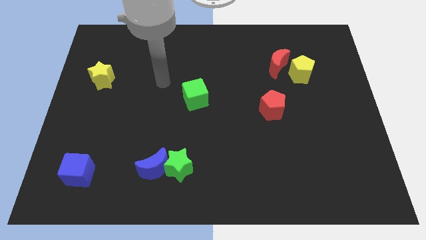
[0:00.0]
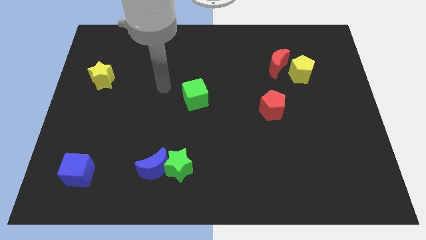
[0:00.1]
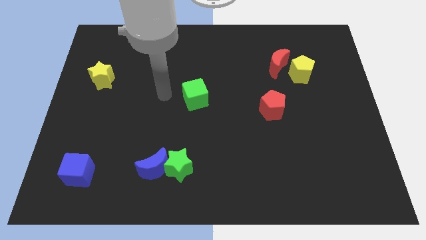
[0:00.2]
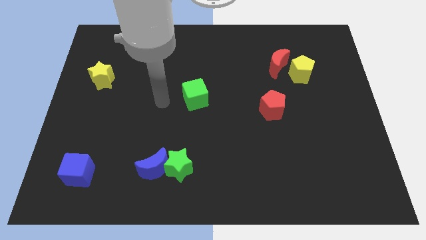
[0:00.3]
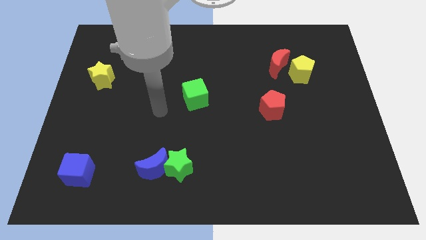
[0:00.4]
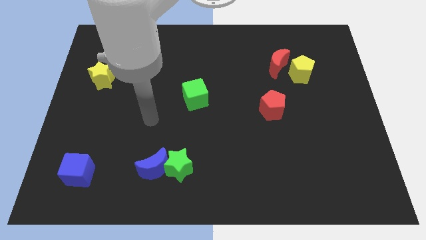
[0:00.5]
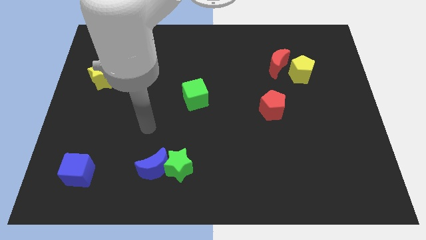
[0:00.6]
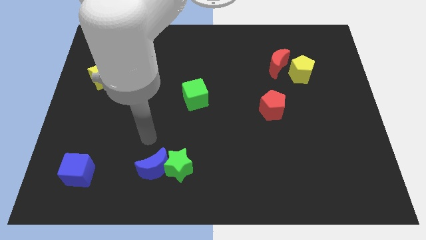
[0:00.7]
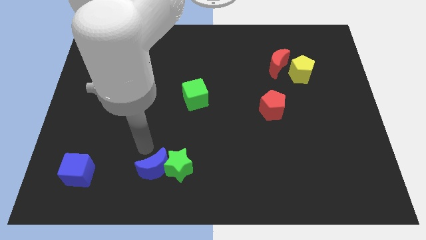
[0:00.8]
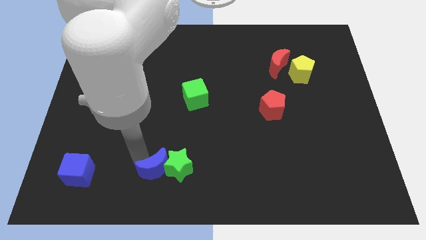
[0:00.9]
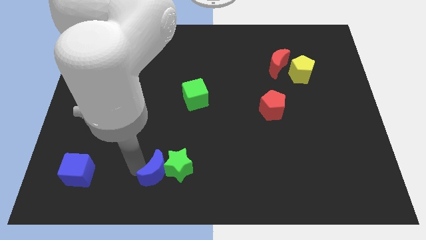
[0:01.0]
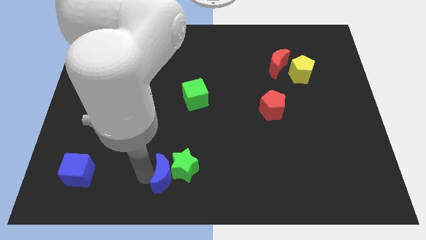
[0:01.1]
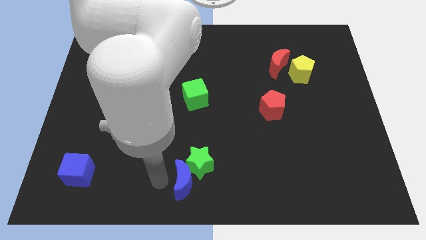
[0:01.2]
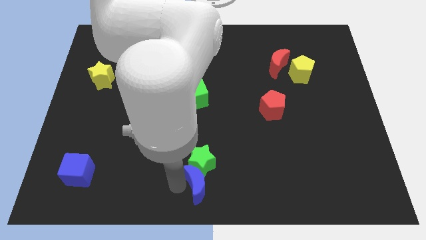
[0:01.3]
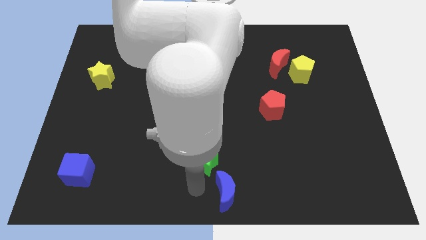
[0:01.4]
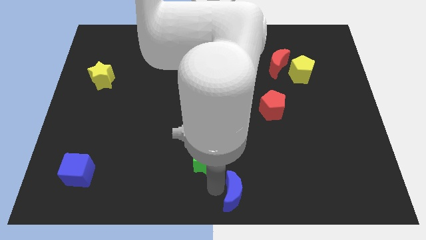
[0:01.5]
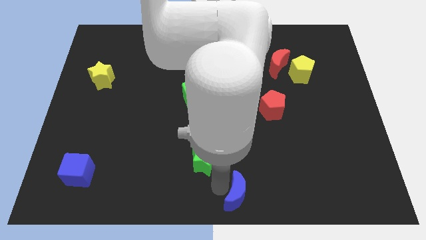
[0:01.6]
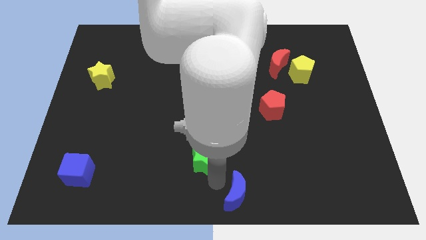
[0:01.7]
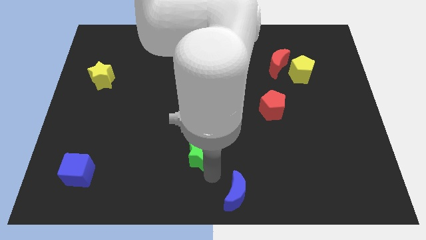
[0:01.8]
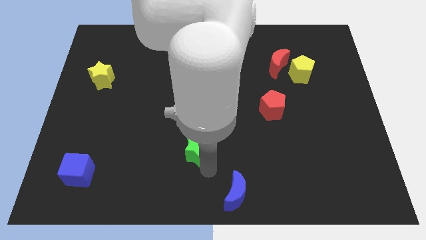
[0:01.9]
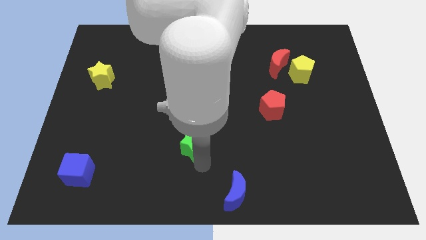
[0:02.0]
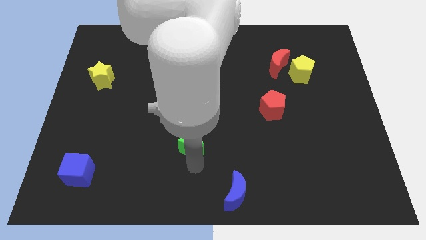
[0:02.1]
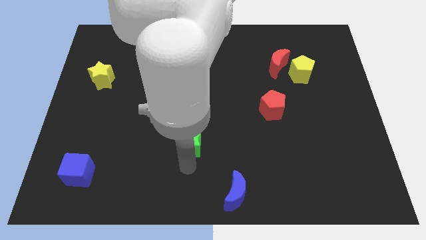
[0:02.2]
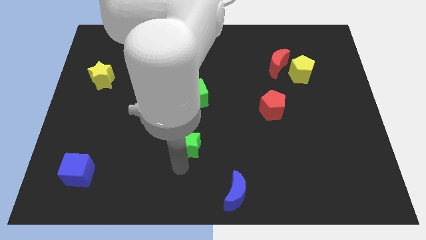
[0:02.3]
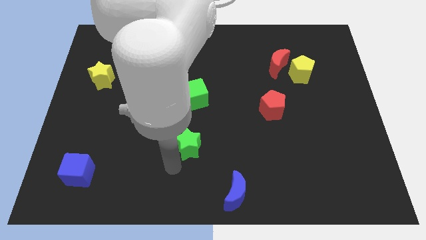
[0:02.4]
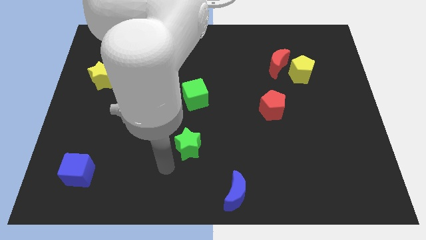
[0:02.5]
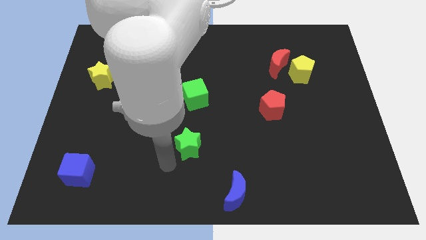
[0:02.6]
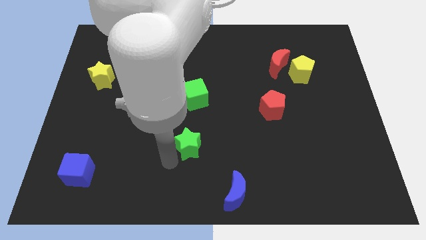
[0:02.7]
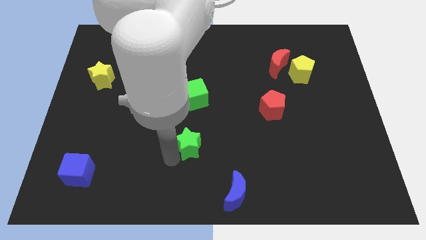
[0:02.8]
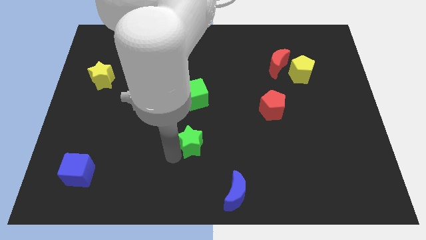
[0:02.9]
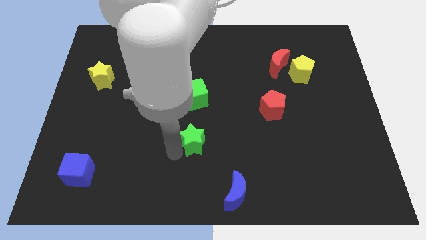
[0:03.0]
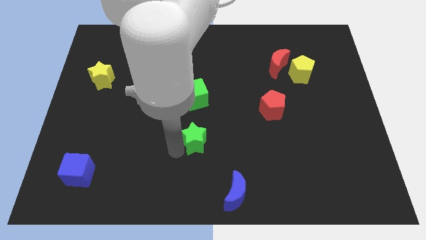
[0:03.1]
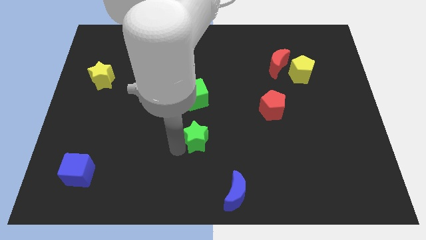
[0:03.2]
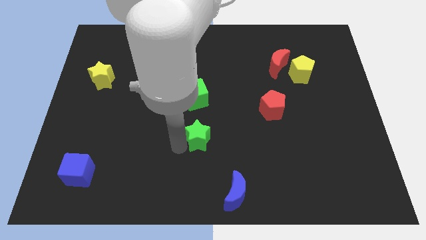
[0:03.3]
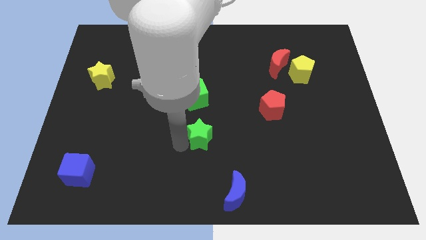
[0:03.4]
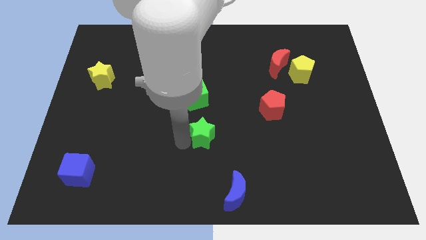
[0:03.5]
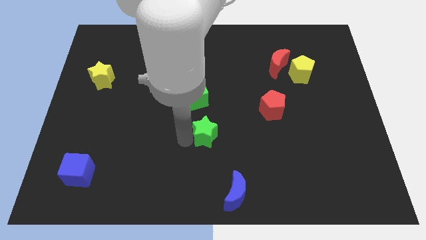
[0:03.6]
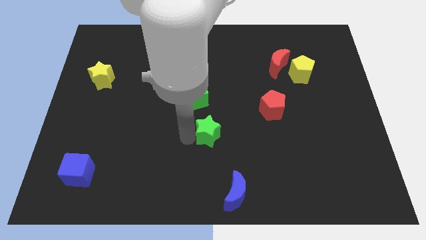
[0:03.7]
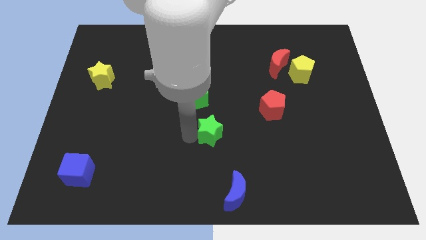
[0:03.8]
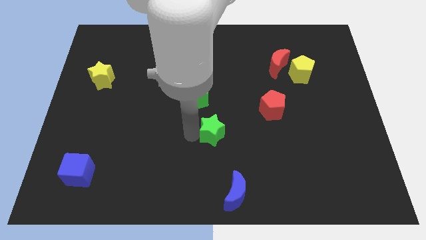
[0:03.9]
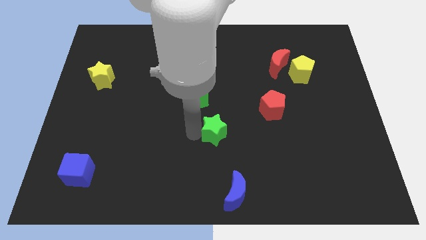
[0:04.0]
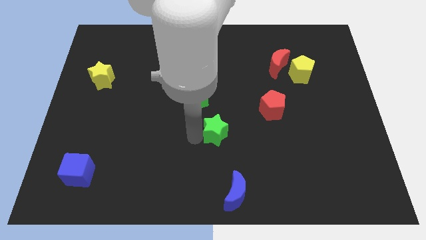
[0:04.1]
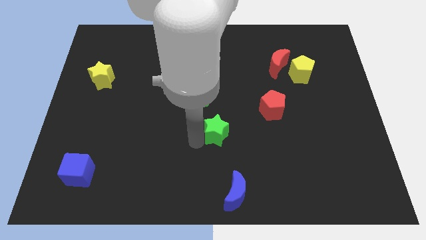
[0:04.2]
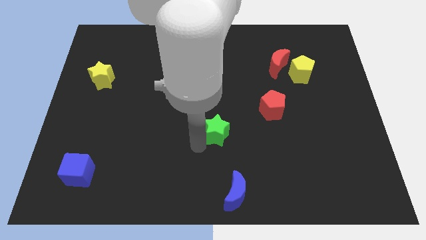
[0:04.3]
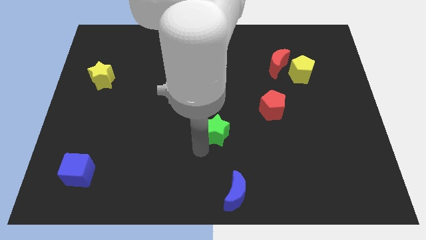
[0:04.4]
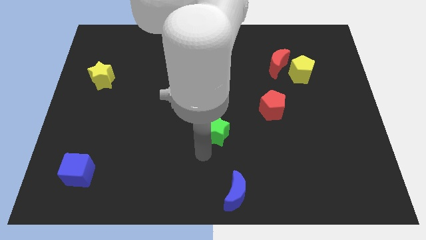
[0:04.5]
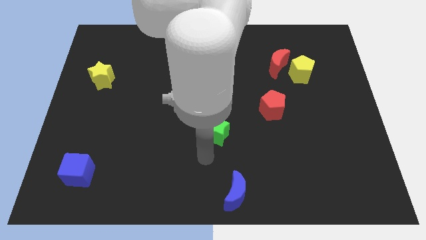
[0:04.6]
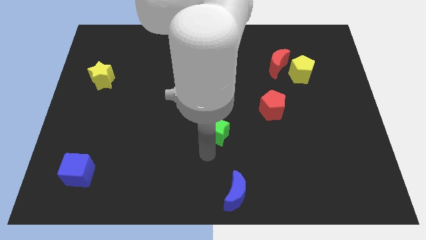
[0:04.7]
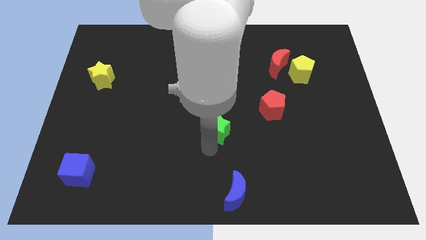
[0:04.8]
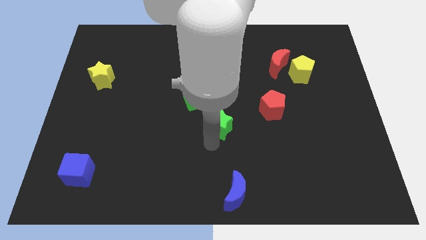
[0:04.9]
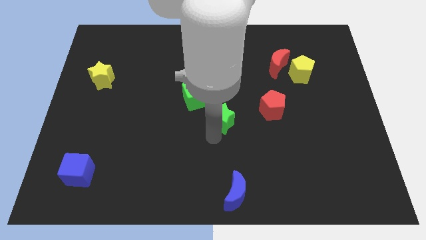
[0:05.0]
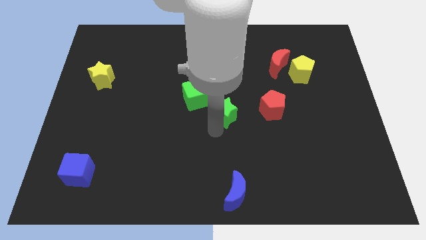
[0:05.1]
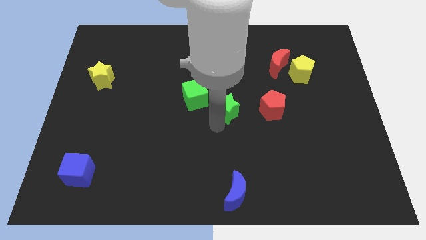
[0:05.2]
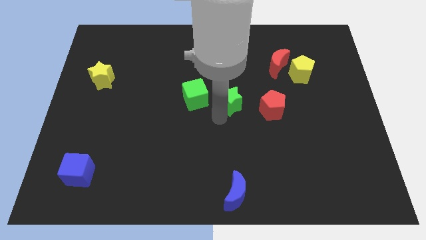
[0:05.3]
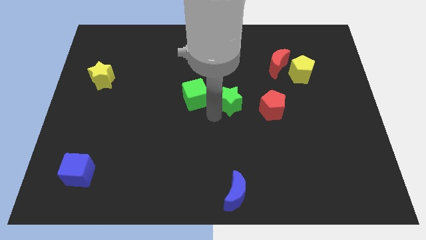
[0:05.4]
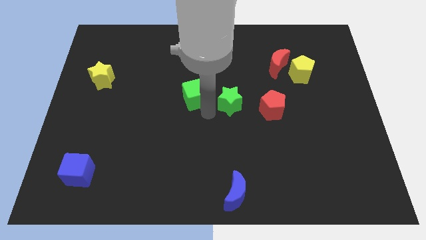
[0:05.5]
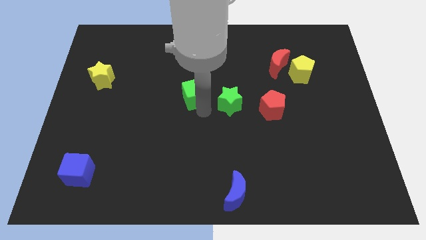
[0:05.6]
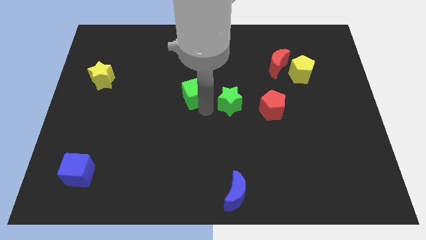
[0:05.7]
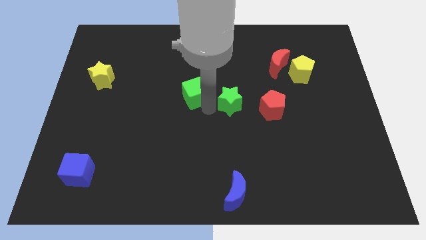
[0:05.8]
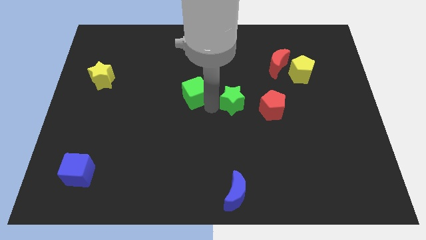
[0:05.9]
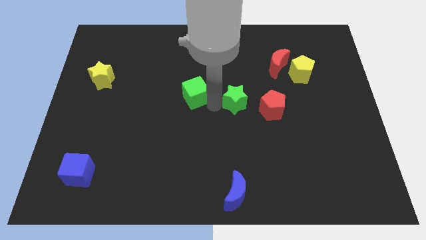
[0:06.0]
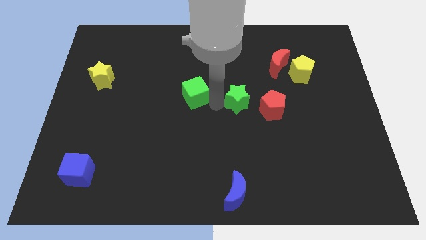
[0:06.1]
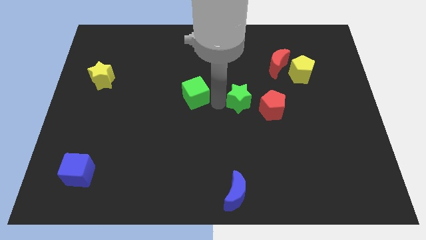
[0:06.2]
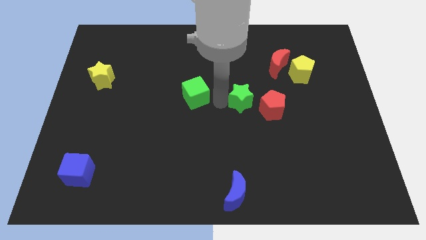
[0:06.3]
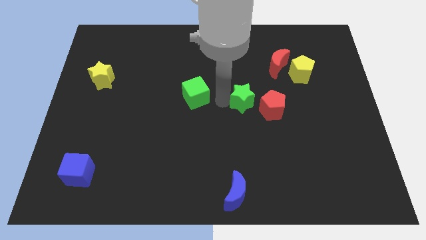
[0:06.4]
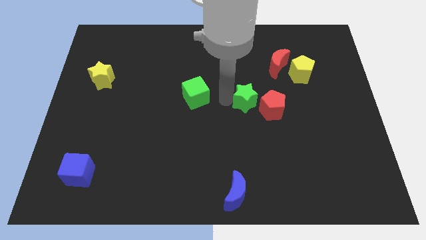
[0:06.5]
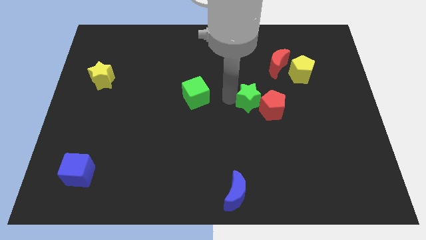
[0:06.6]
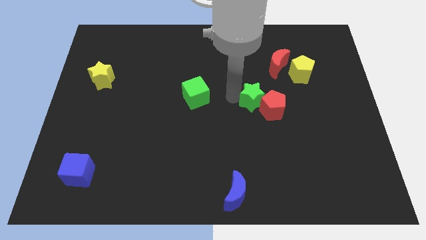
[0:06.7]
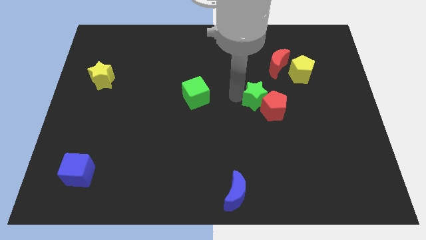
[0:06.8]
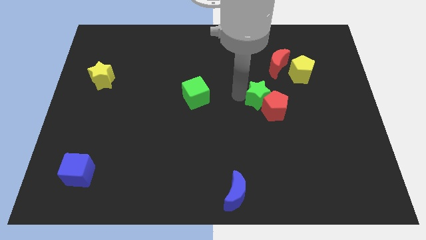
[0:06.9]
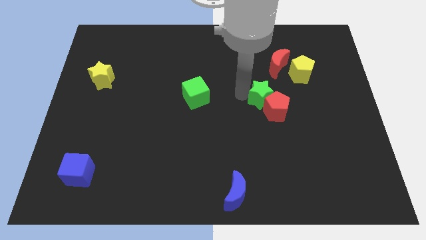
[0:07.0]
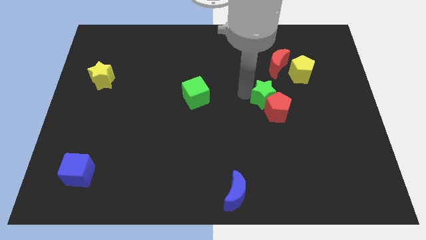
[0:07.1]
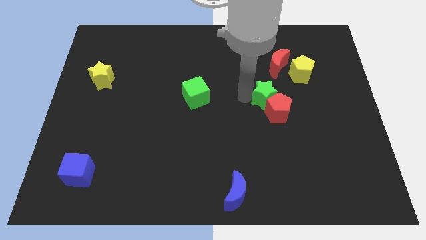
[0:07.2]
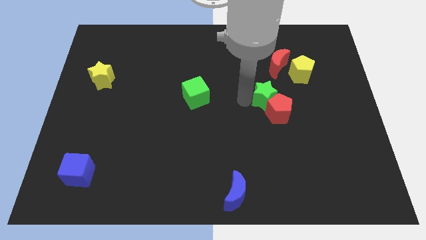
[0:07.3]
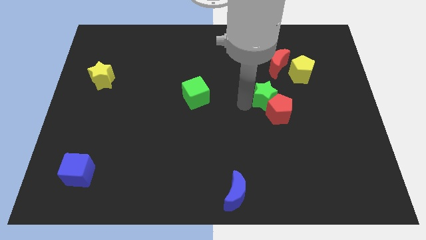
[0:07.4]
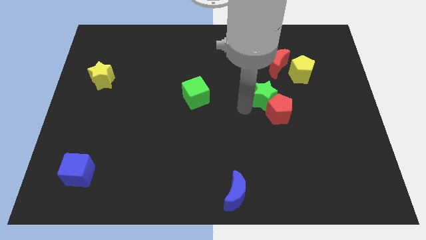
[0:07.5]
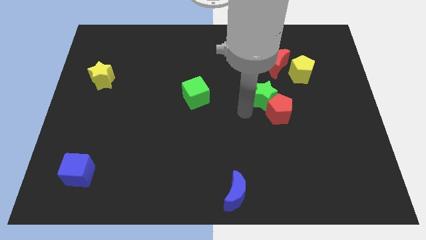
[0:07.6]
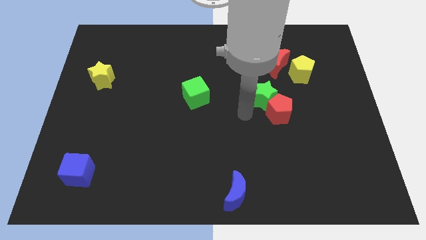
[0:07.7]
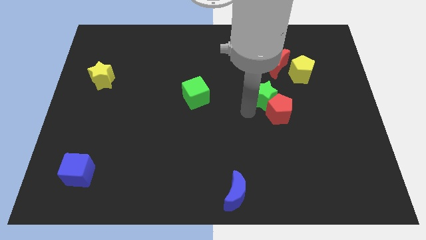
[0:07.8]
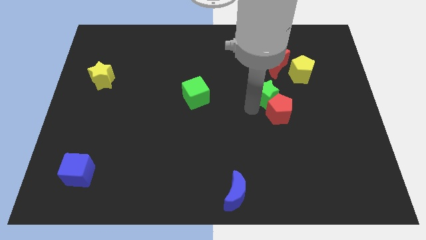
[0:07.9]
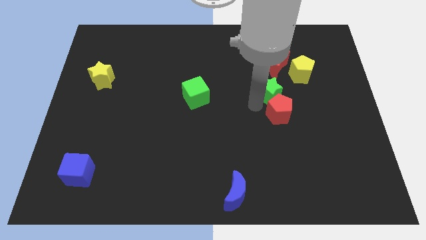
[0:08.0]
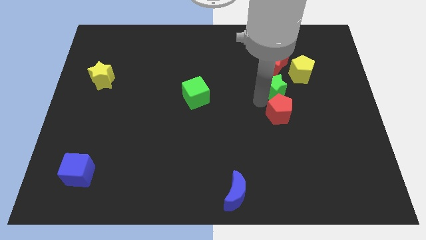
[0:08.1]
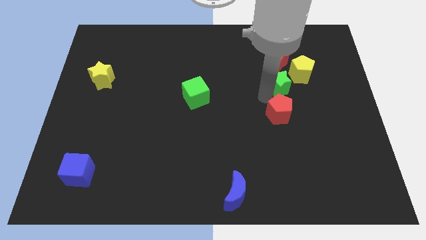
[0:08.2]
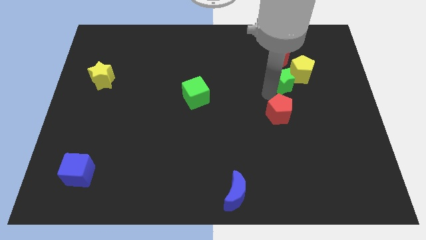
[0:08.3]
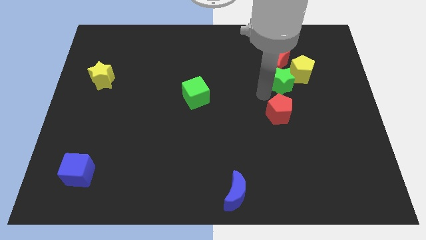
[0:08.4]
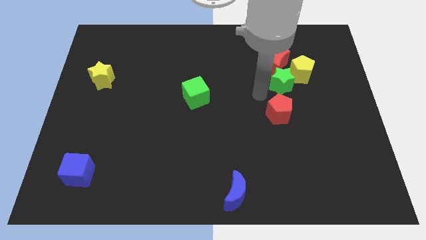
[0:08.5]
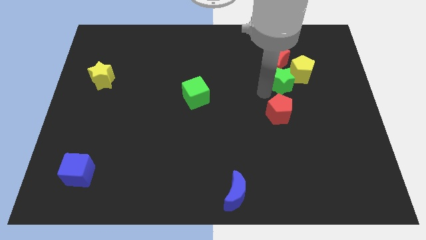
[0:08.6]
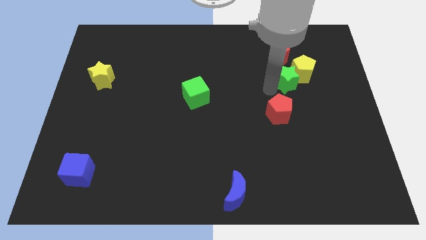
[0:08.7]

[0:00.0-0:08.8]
put the green star to the yellow pentagon
